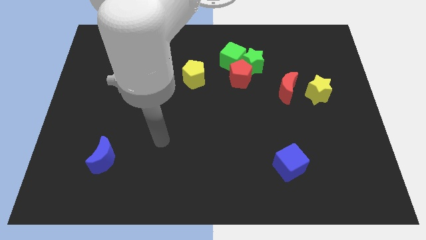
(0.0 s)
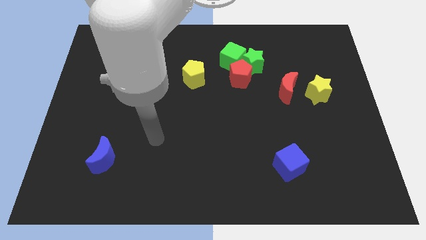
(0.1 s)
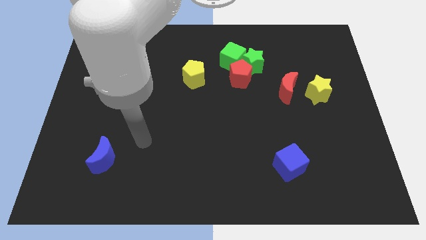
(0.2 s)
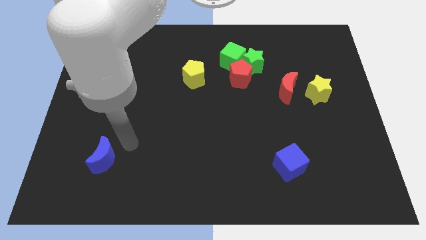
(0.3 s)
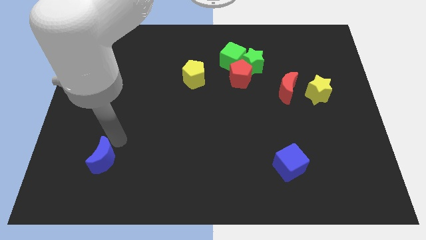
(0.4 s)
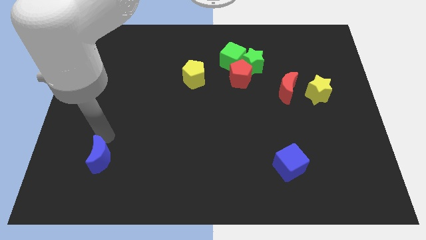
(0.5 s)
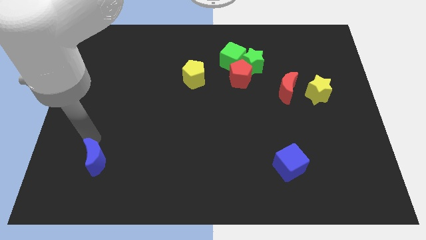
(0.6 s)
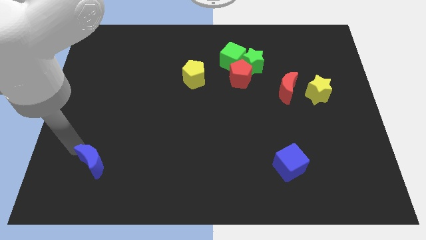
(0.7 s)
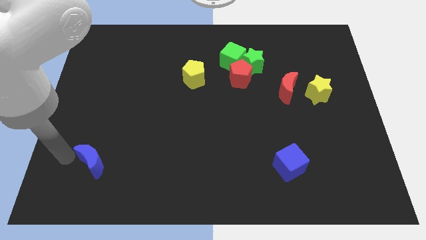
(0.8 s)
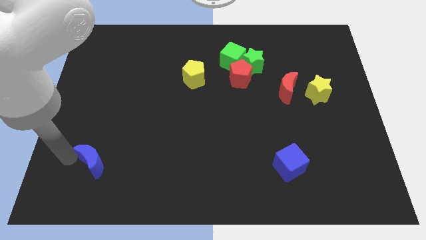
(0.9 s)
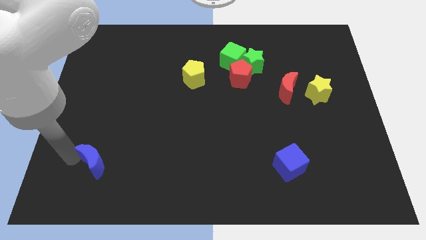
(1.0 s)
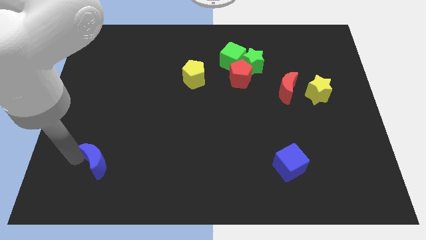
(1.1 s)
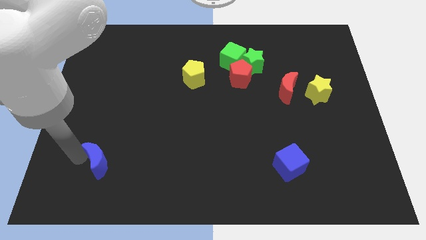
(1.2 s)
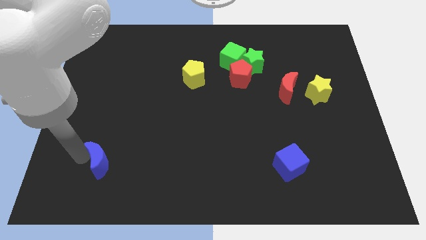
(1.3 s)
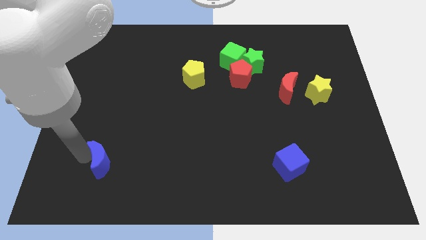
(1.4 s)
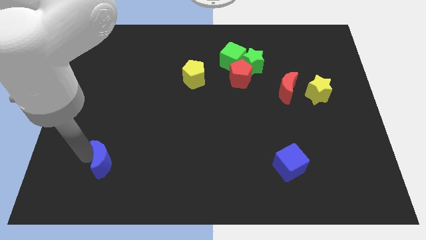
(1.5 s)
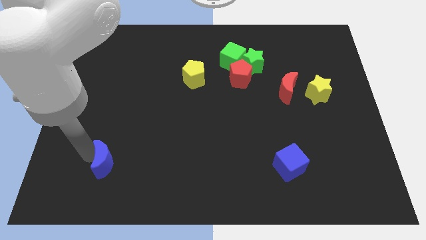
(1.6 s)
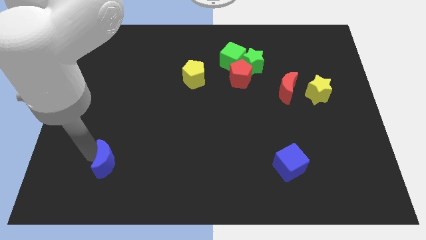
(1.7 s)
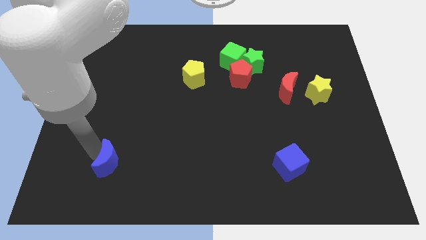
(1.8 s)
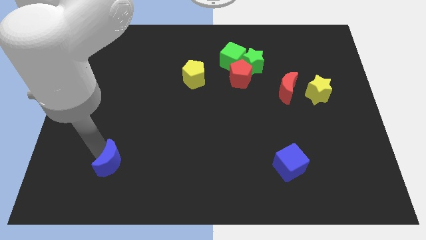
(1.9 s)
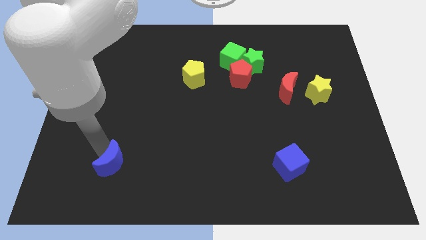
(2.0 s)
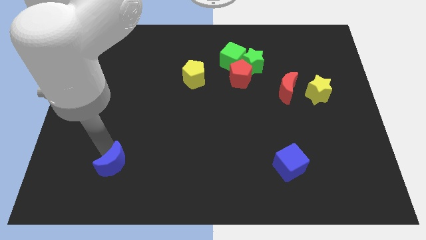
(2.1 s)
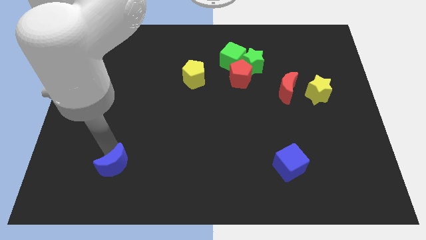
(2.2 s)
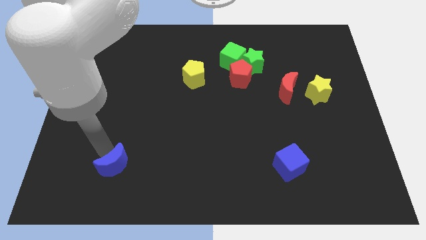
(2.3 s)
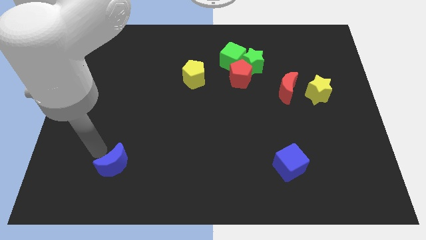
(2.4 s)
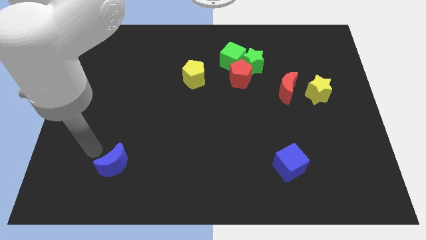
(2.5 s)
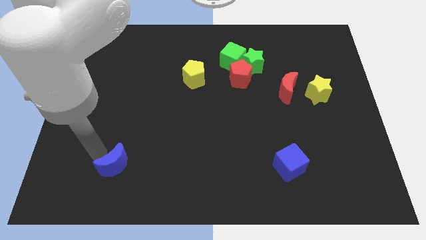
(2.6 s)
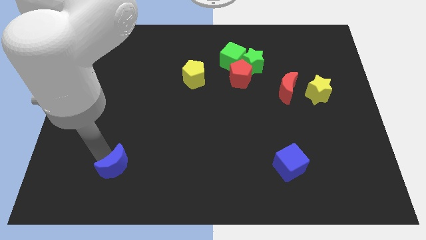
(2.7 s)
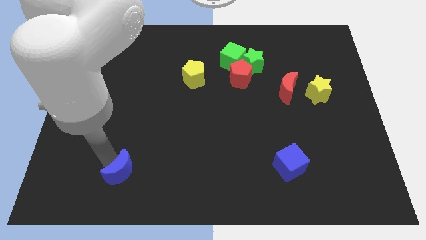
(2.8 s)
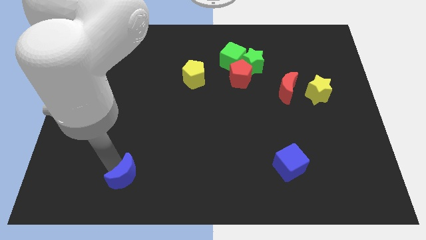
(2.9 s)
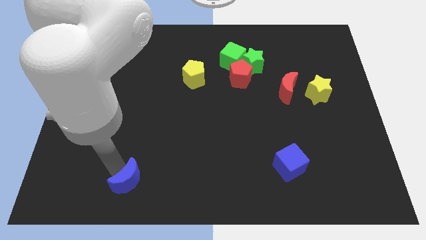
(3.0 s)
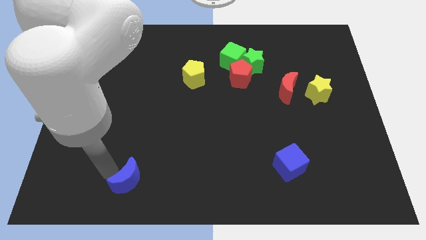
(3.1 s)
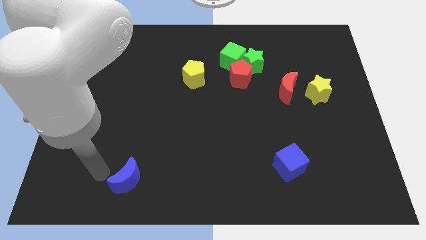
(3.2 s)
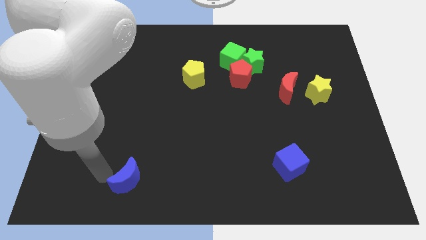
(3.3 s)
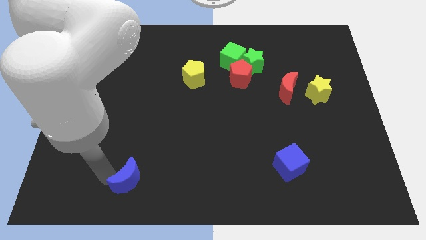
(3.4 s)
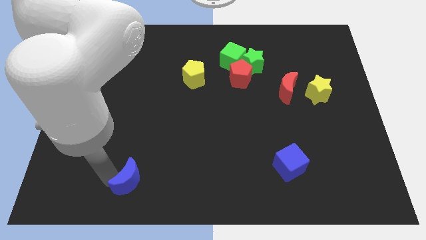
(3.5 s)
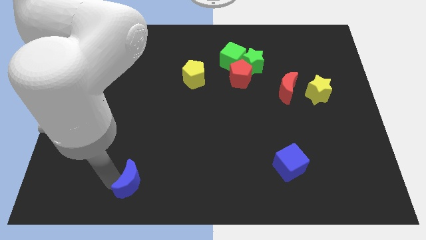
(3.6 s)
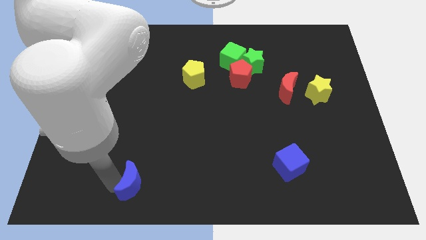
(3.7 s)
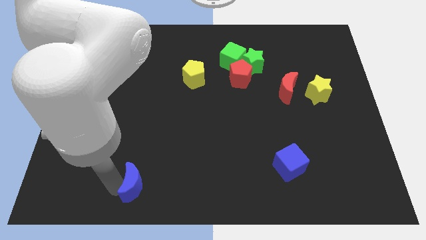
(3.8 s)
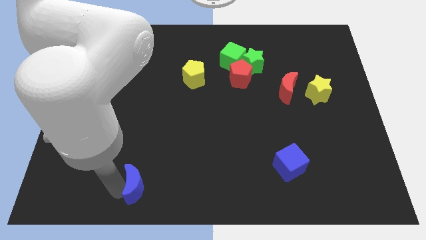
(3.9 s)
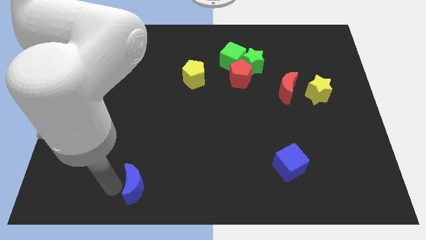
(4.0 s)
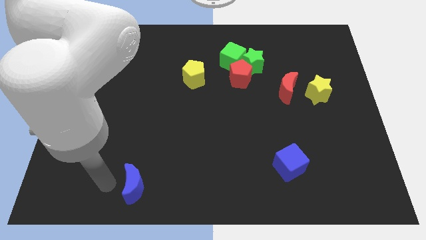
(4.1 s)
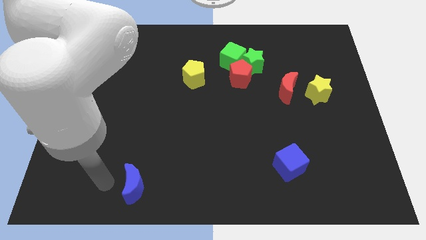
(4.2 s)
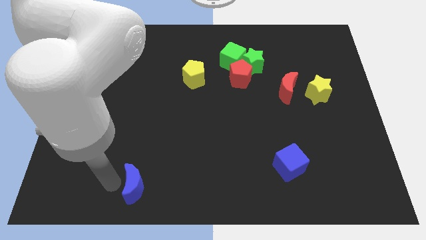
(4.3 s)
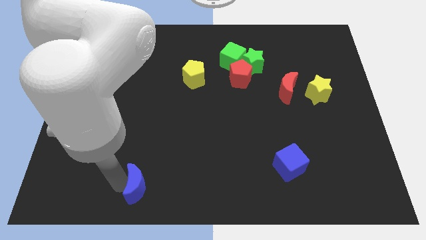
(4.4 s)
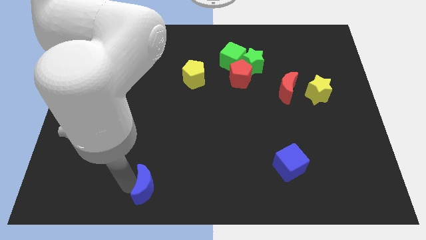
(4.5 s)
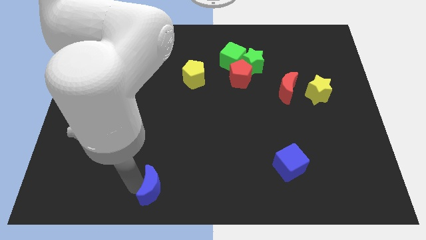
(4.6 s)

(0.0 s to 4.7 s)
put the blue moon to the bottom
